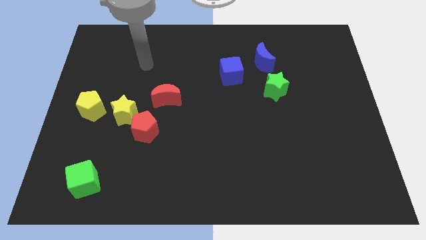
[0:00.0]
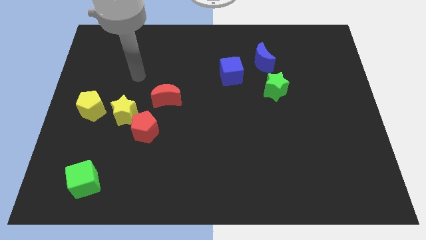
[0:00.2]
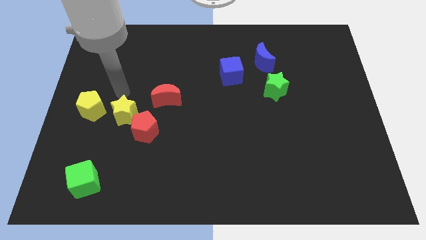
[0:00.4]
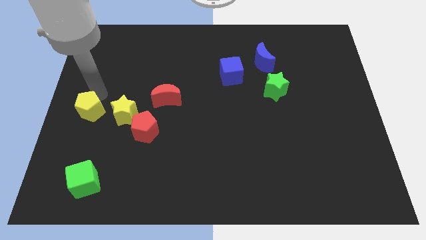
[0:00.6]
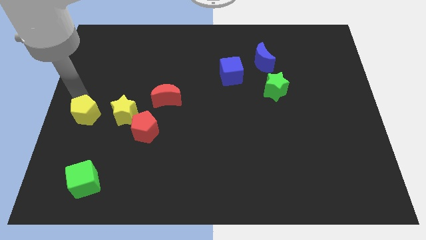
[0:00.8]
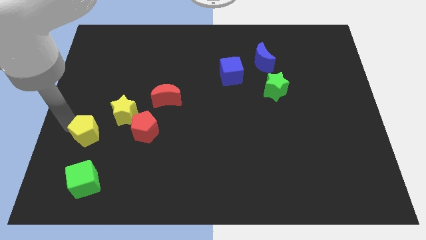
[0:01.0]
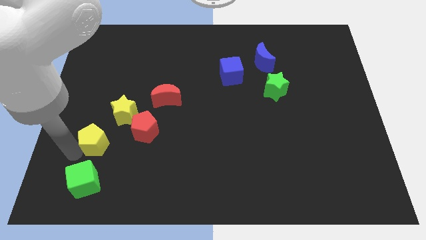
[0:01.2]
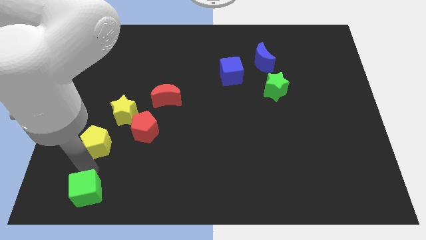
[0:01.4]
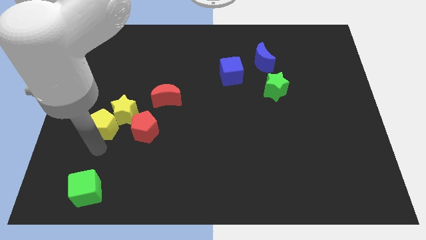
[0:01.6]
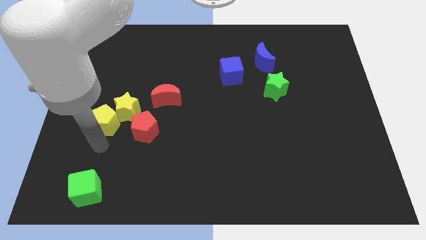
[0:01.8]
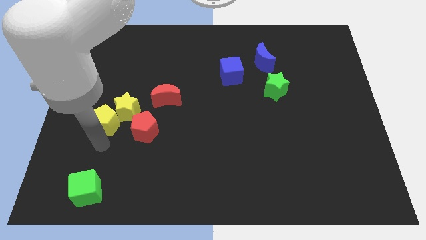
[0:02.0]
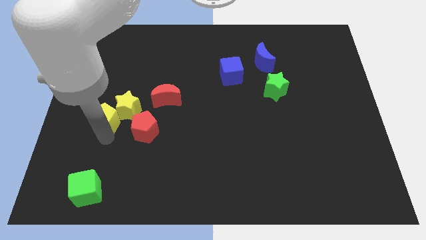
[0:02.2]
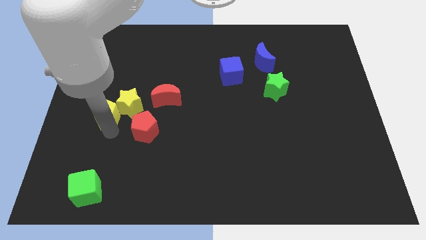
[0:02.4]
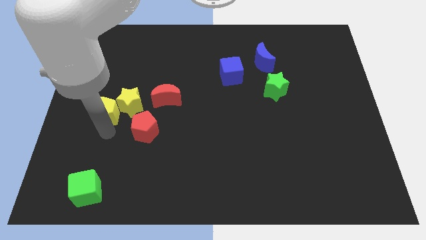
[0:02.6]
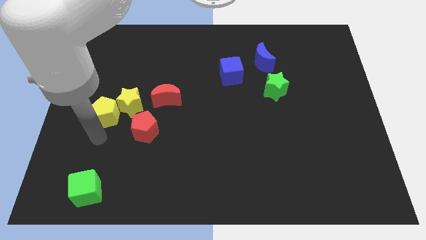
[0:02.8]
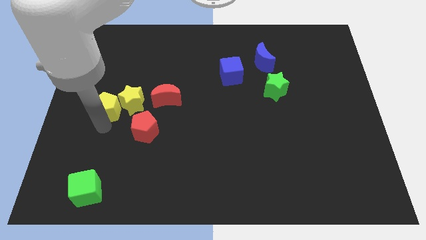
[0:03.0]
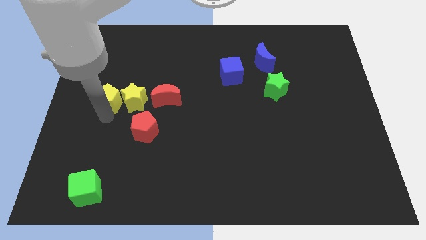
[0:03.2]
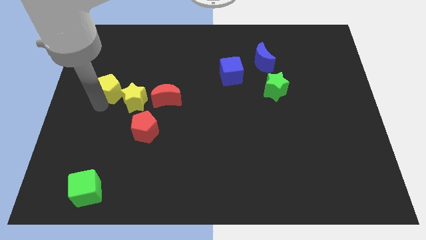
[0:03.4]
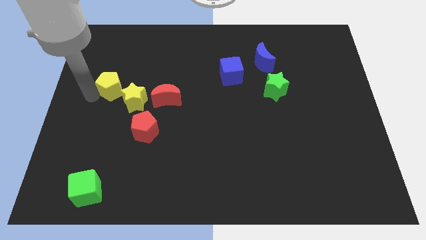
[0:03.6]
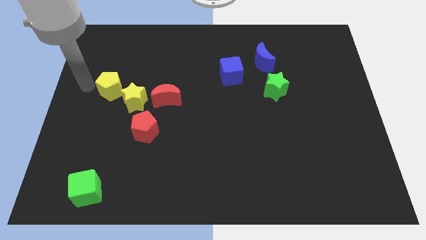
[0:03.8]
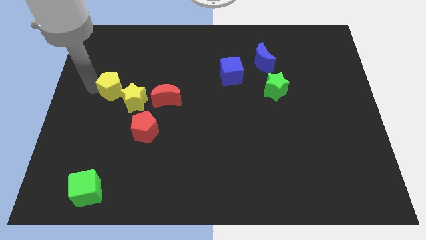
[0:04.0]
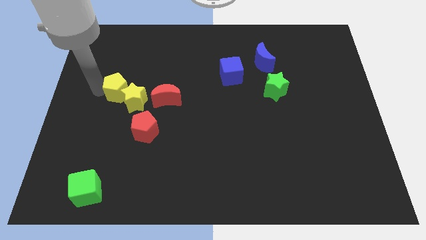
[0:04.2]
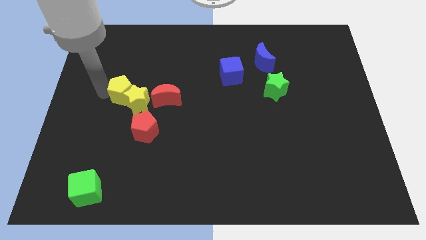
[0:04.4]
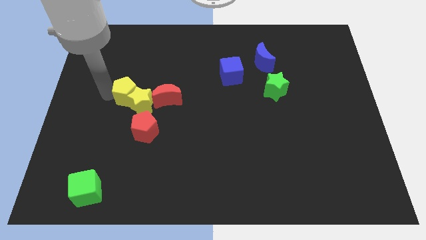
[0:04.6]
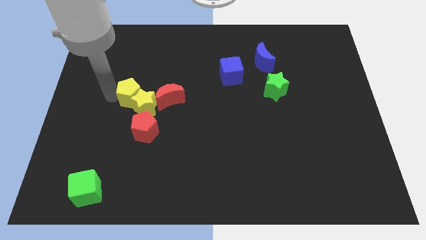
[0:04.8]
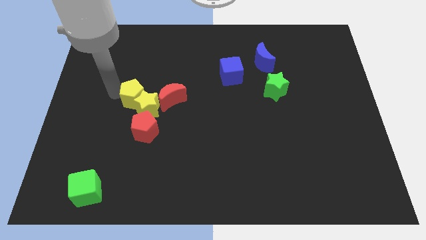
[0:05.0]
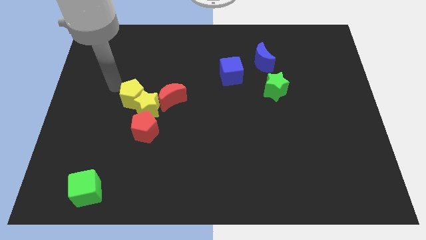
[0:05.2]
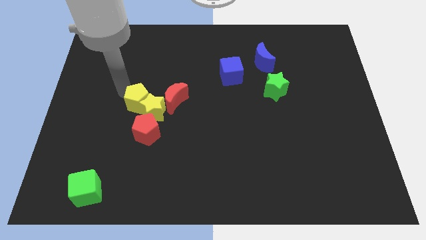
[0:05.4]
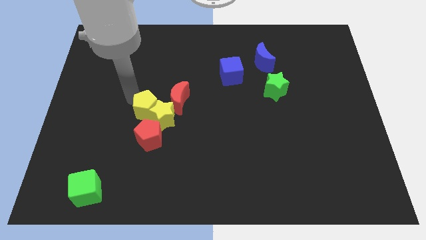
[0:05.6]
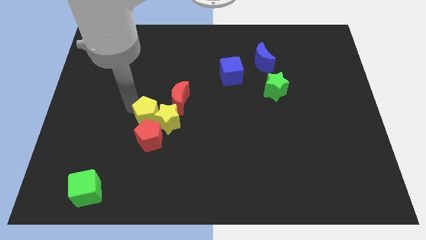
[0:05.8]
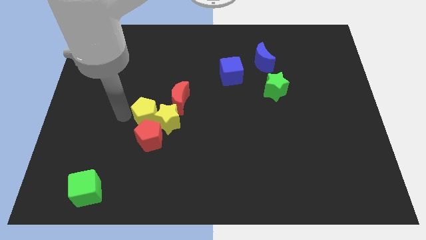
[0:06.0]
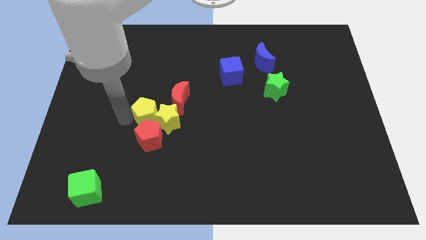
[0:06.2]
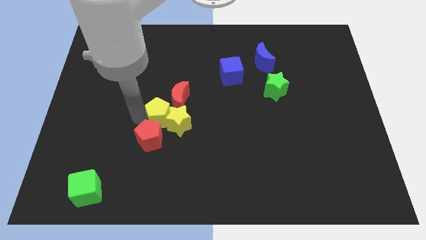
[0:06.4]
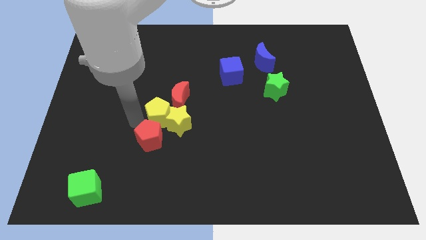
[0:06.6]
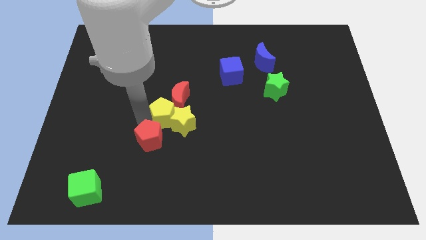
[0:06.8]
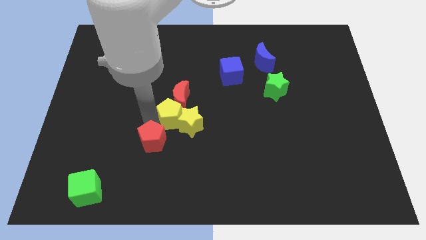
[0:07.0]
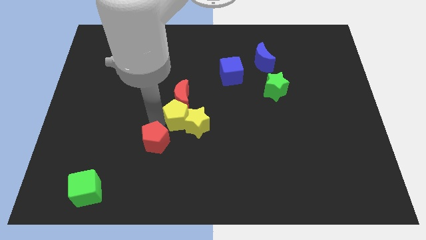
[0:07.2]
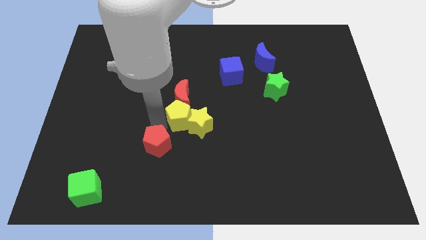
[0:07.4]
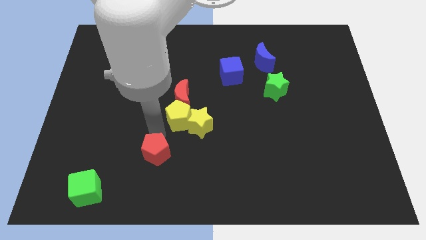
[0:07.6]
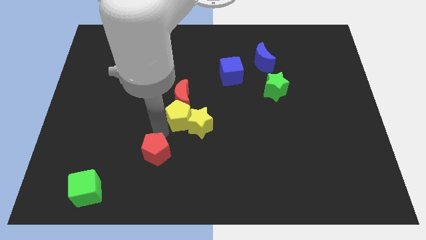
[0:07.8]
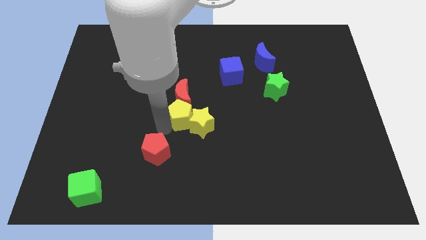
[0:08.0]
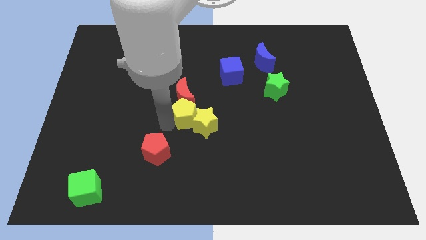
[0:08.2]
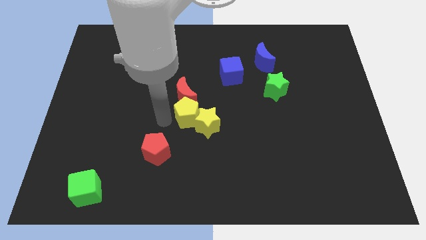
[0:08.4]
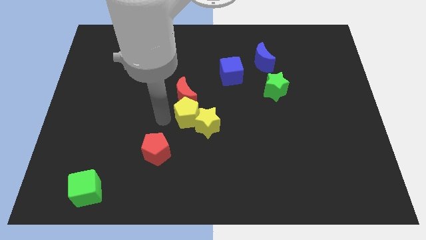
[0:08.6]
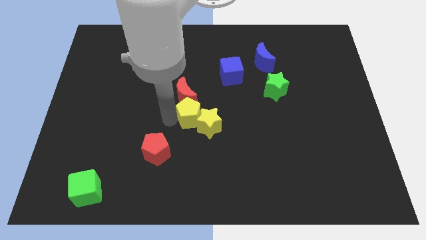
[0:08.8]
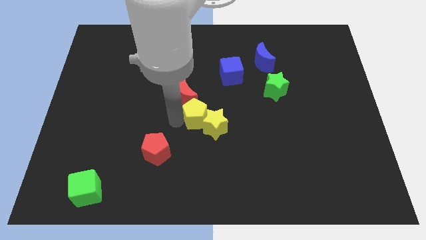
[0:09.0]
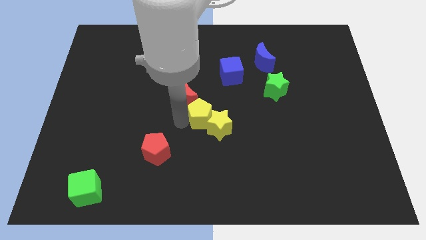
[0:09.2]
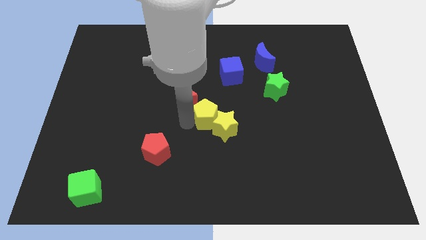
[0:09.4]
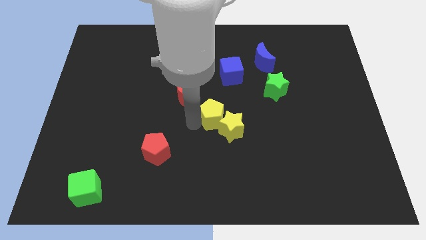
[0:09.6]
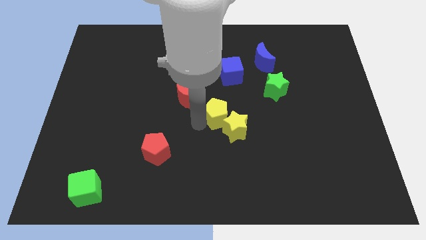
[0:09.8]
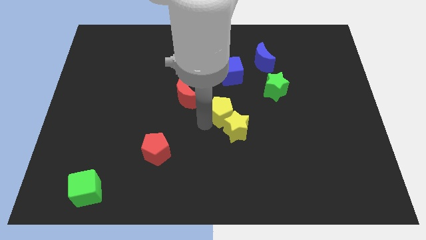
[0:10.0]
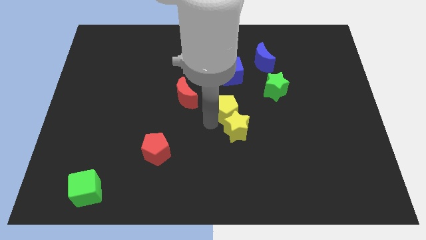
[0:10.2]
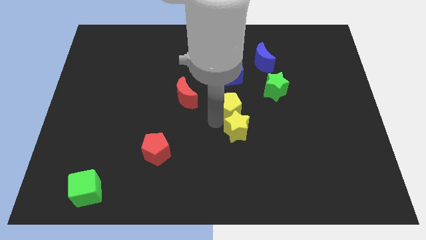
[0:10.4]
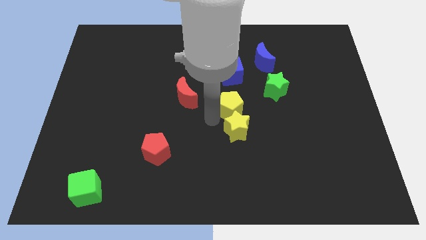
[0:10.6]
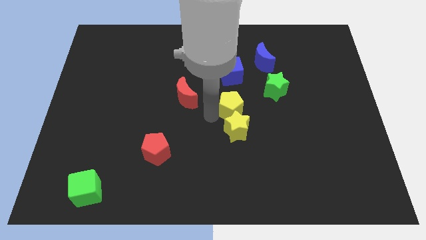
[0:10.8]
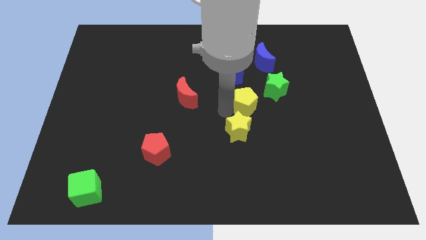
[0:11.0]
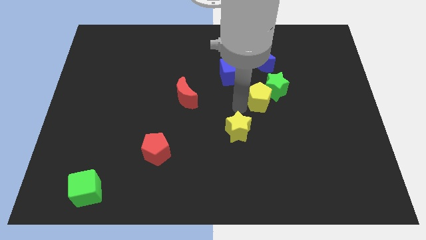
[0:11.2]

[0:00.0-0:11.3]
slide the yellow pentagon towards the green star

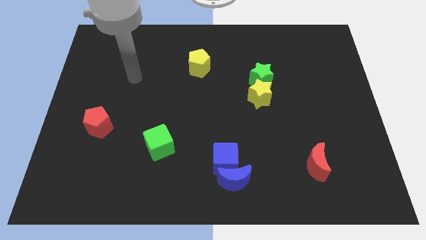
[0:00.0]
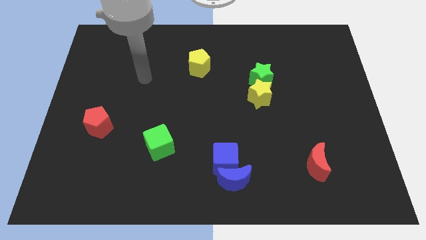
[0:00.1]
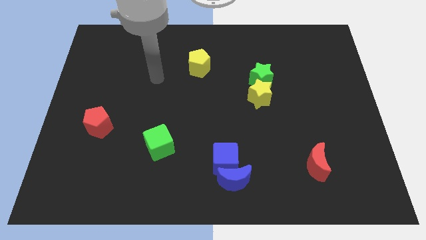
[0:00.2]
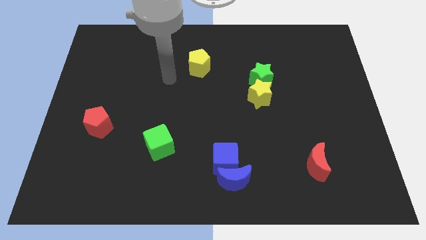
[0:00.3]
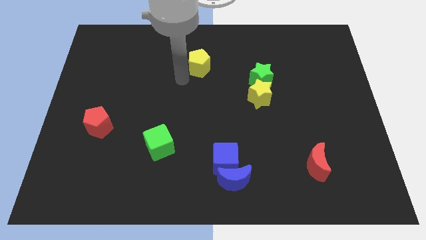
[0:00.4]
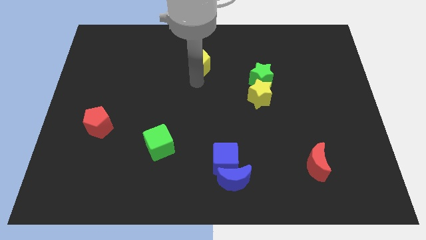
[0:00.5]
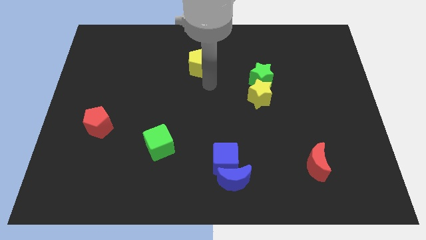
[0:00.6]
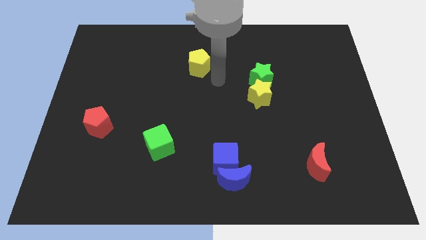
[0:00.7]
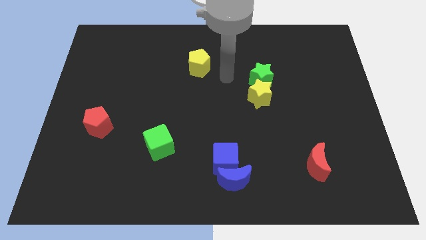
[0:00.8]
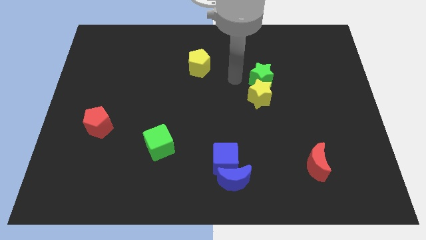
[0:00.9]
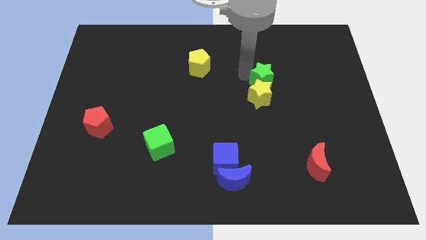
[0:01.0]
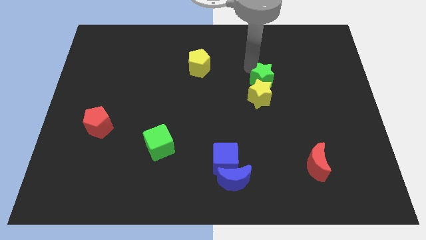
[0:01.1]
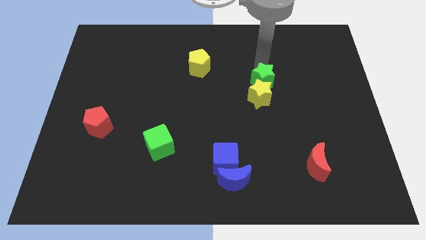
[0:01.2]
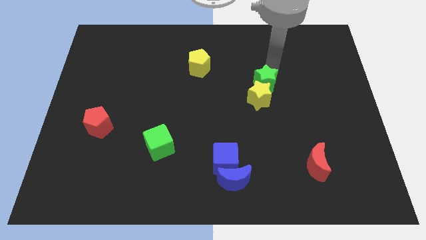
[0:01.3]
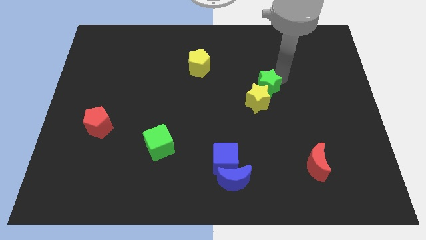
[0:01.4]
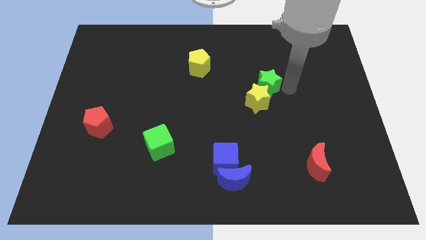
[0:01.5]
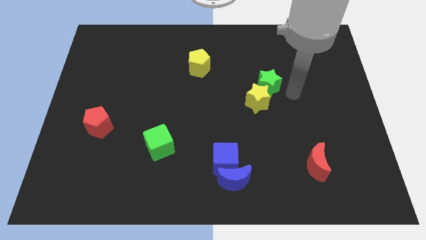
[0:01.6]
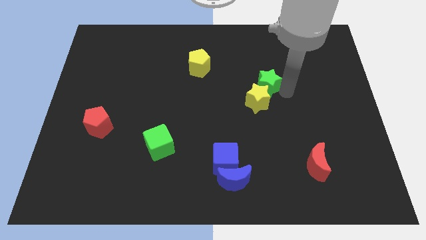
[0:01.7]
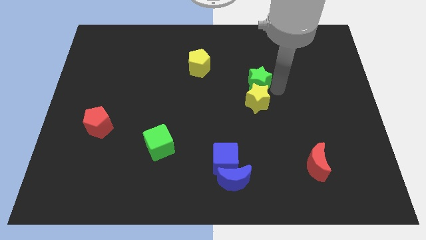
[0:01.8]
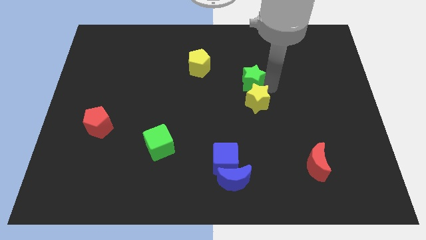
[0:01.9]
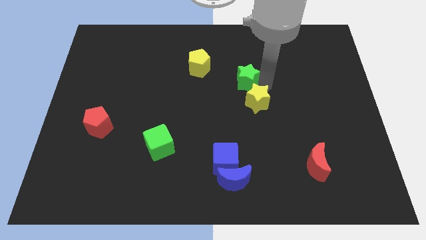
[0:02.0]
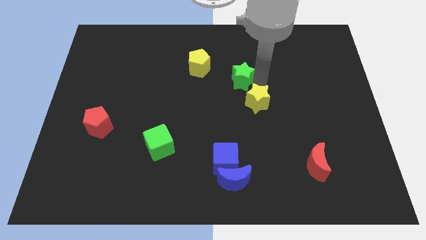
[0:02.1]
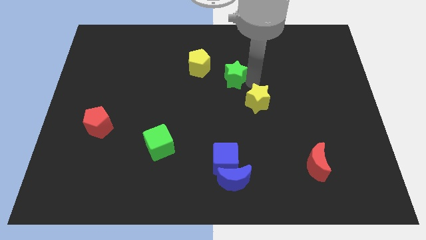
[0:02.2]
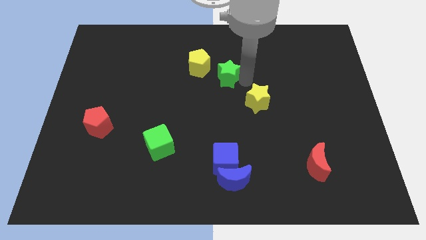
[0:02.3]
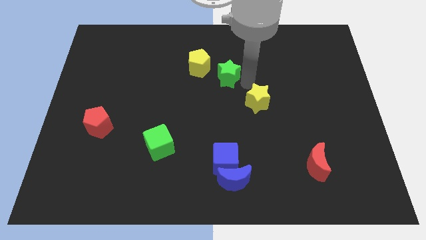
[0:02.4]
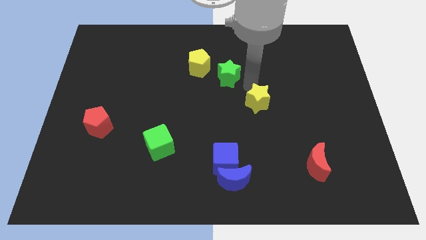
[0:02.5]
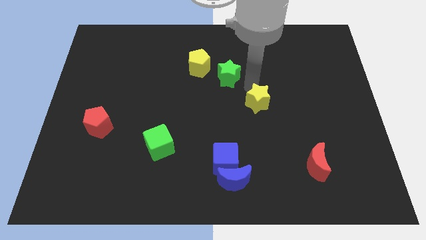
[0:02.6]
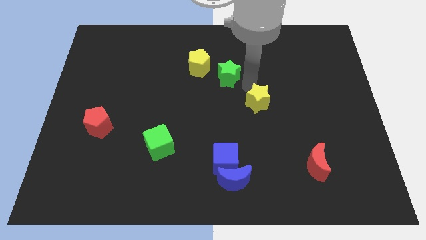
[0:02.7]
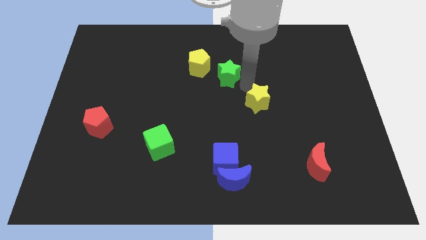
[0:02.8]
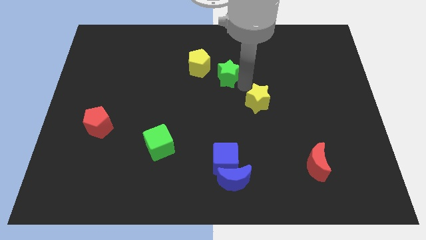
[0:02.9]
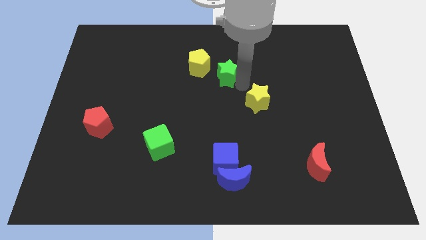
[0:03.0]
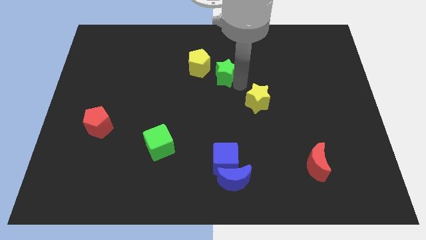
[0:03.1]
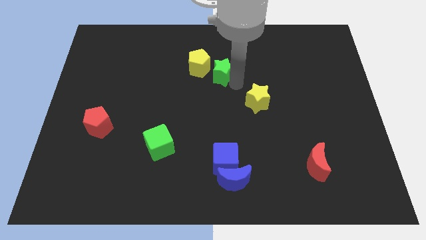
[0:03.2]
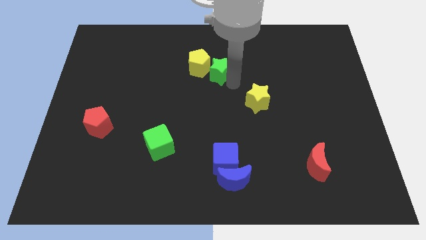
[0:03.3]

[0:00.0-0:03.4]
put the green star towards the yellow pentagon
